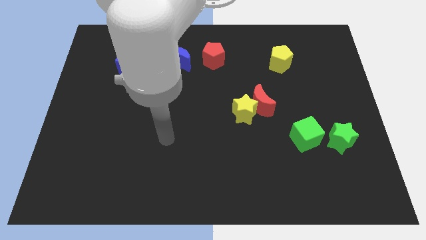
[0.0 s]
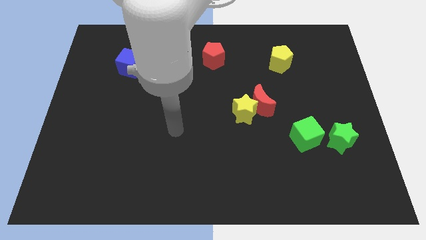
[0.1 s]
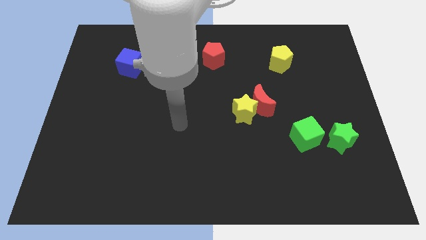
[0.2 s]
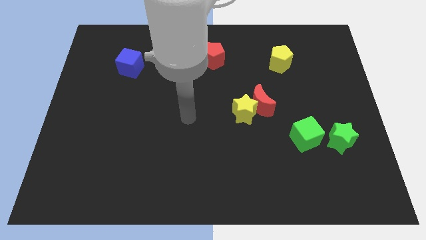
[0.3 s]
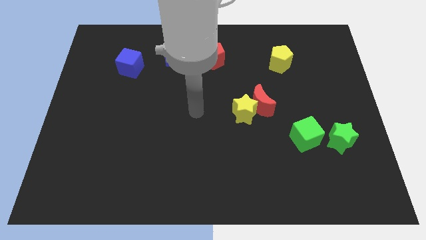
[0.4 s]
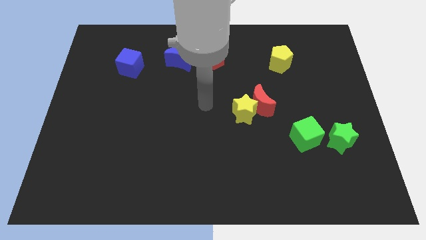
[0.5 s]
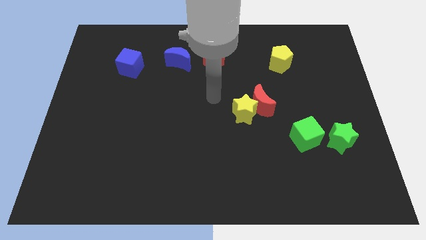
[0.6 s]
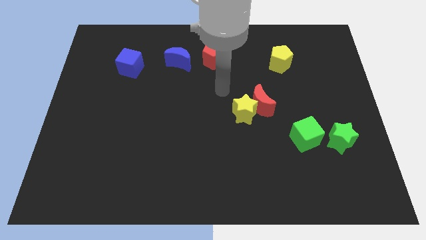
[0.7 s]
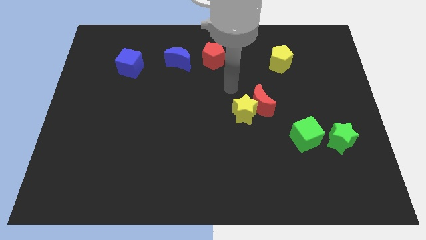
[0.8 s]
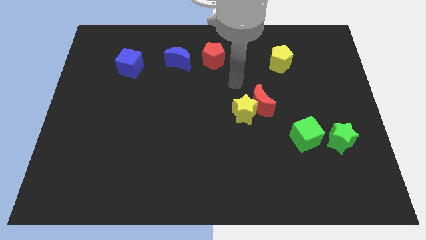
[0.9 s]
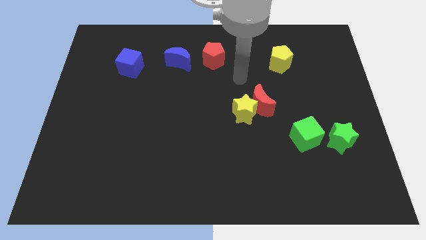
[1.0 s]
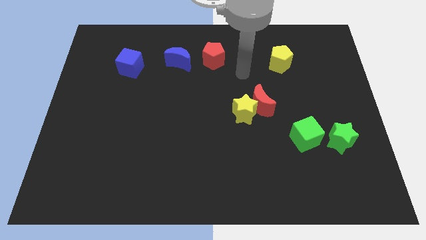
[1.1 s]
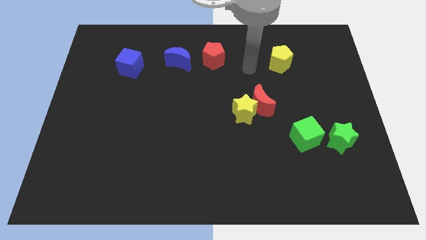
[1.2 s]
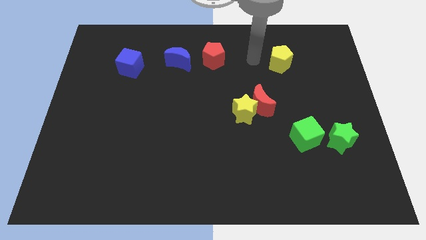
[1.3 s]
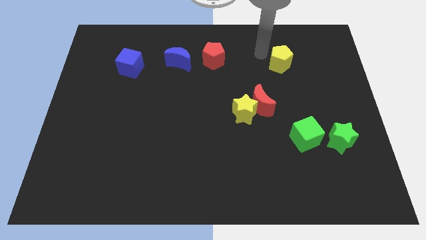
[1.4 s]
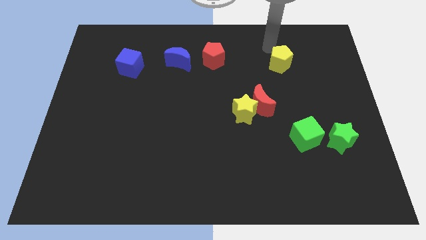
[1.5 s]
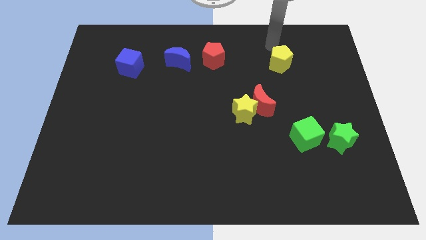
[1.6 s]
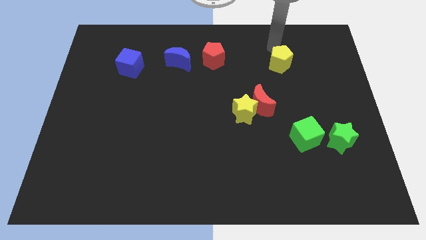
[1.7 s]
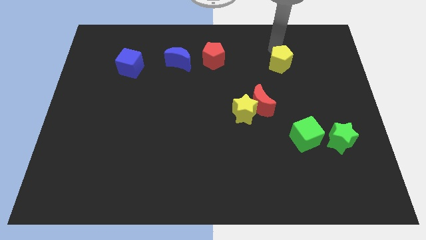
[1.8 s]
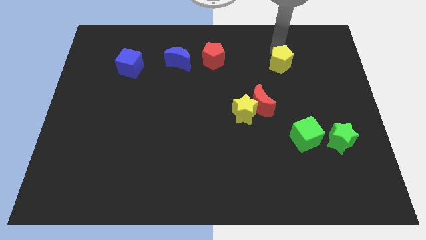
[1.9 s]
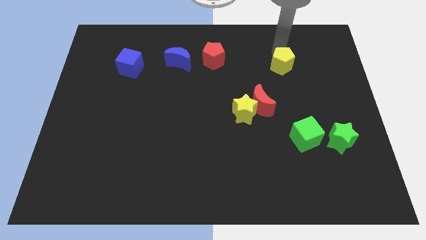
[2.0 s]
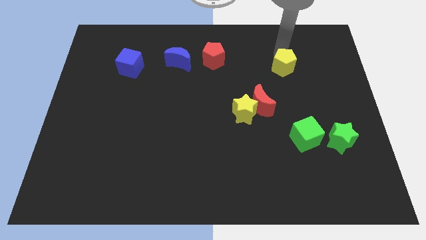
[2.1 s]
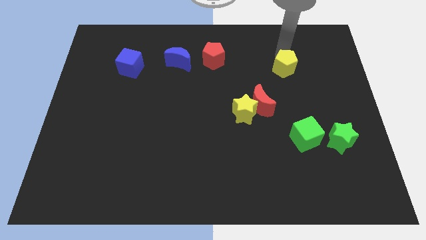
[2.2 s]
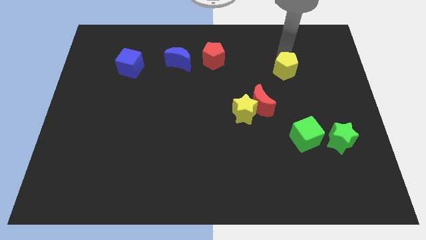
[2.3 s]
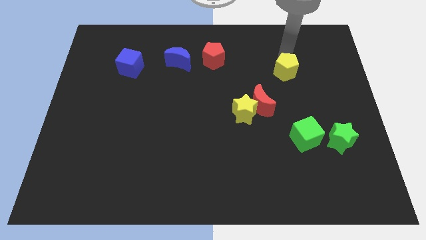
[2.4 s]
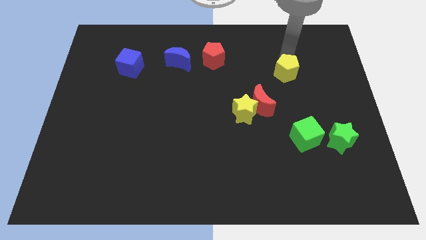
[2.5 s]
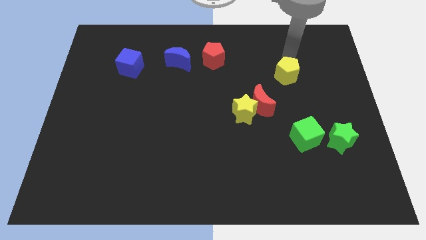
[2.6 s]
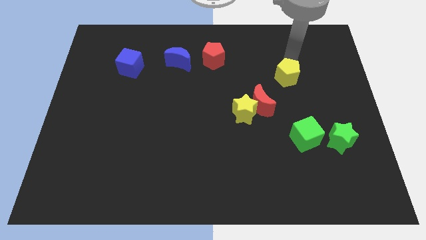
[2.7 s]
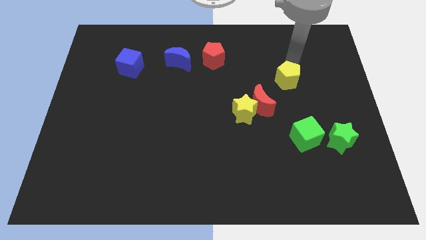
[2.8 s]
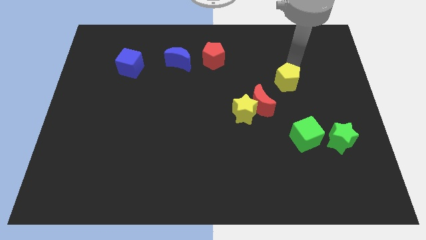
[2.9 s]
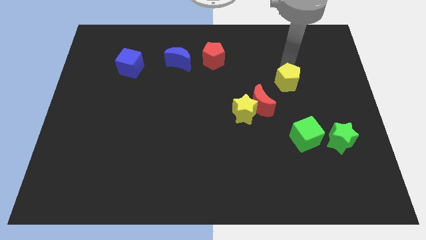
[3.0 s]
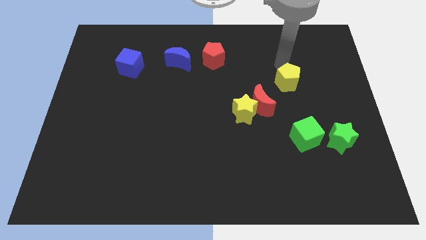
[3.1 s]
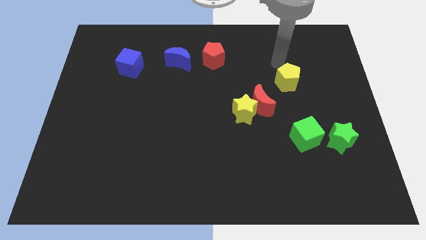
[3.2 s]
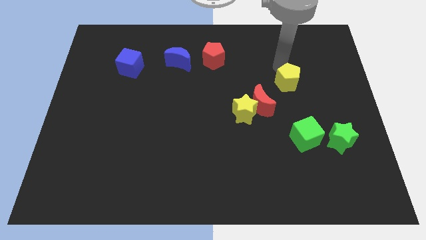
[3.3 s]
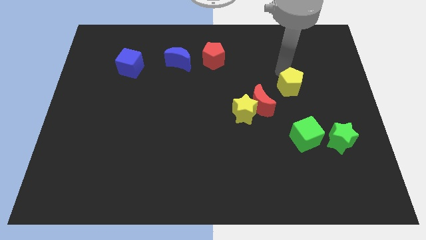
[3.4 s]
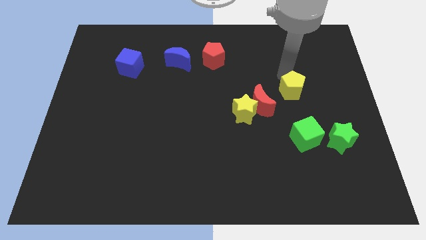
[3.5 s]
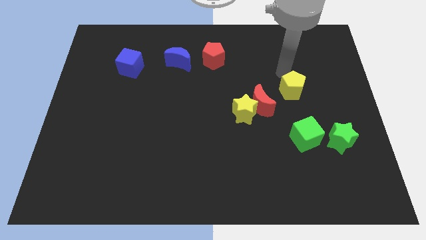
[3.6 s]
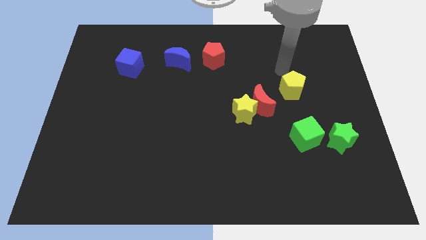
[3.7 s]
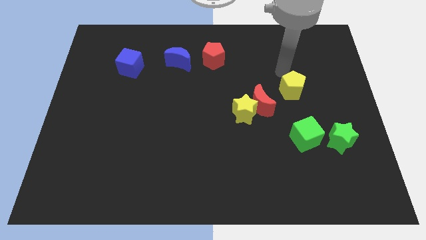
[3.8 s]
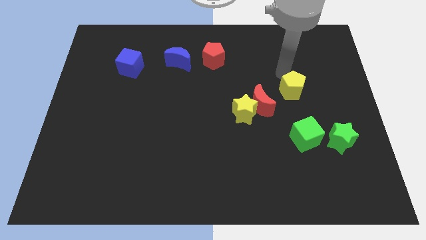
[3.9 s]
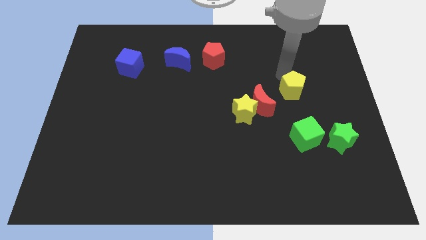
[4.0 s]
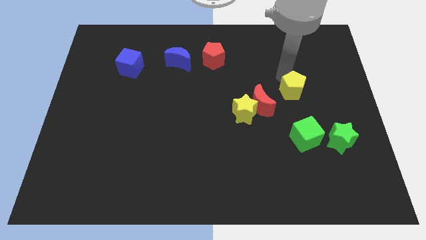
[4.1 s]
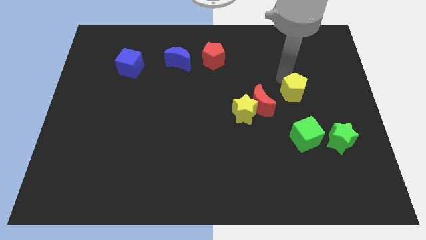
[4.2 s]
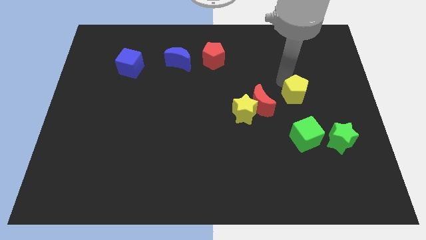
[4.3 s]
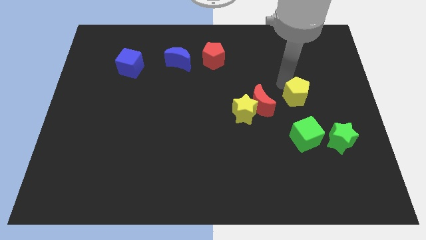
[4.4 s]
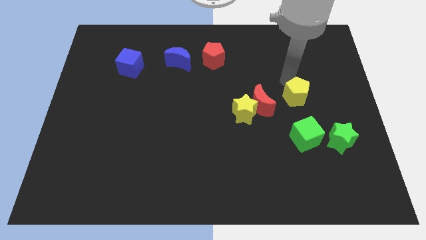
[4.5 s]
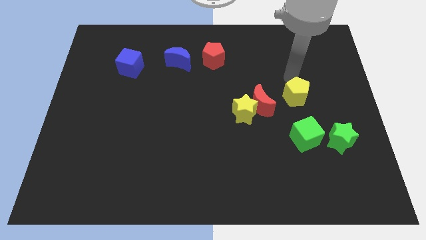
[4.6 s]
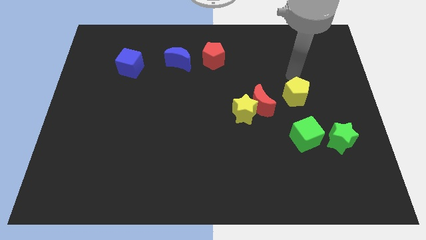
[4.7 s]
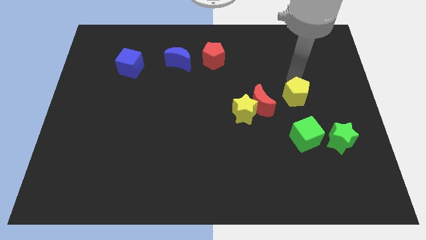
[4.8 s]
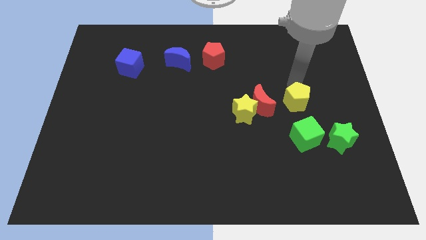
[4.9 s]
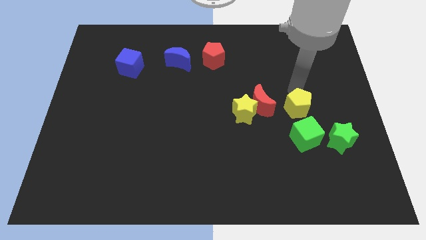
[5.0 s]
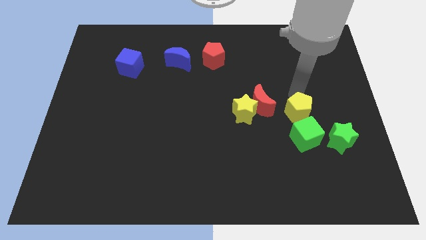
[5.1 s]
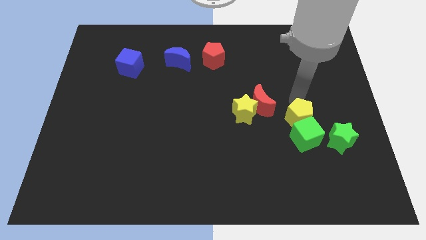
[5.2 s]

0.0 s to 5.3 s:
put the yellow pentagon towards the green cube

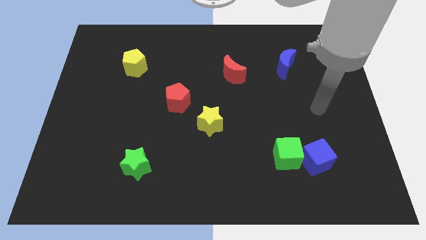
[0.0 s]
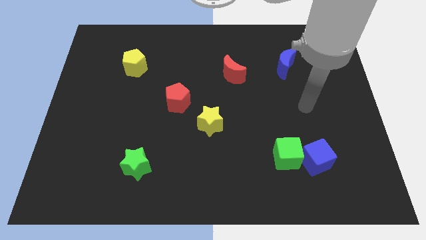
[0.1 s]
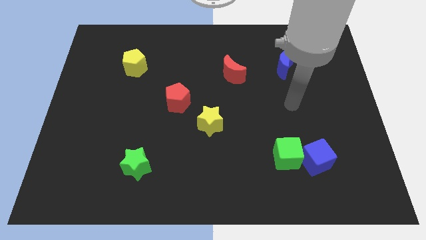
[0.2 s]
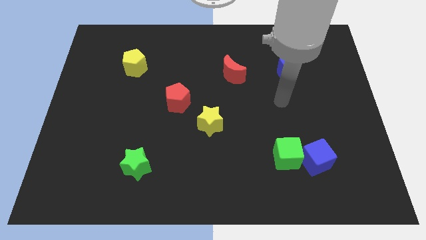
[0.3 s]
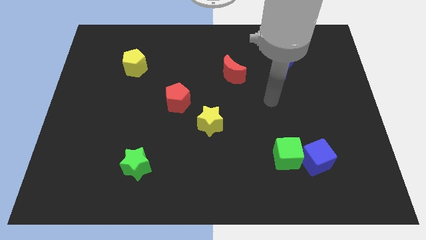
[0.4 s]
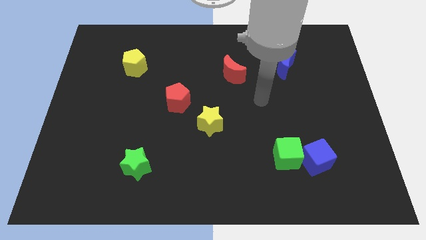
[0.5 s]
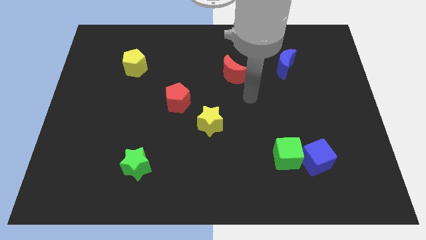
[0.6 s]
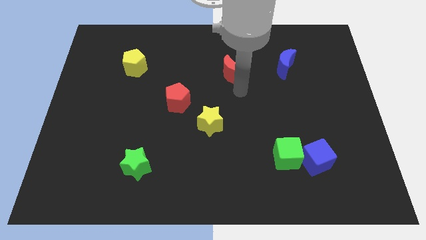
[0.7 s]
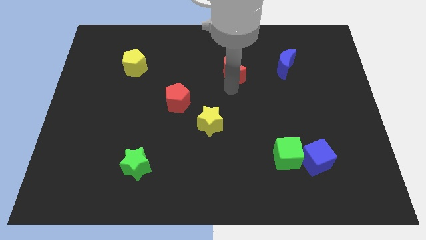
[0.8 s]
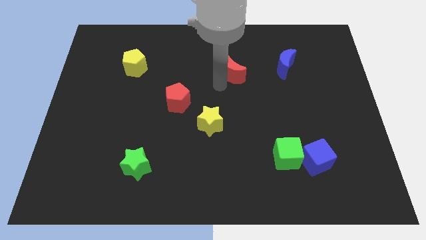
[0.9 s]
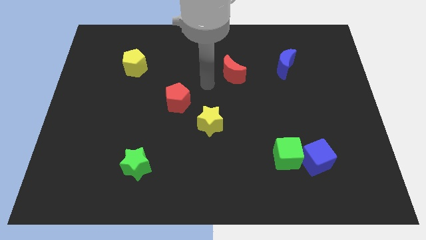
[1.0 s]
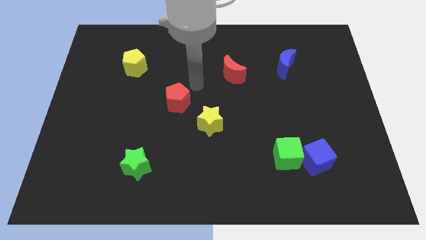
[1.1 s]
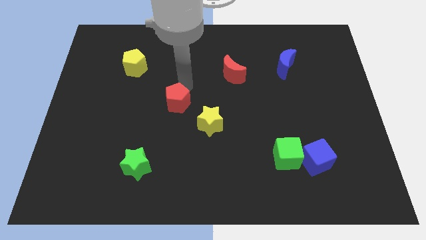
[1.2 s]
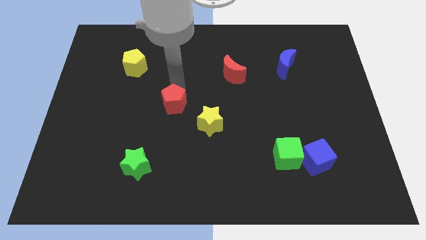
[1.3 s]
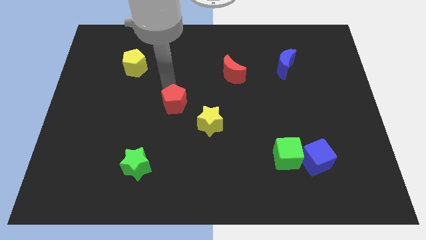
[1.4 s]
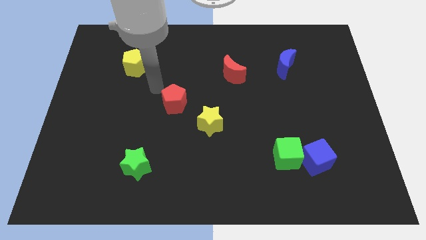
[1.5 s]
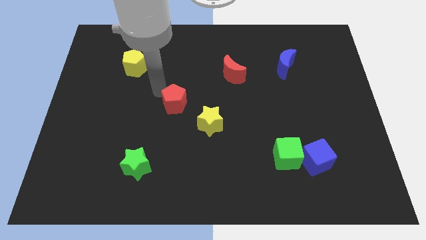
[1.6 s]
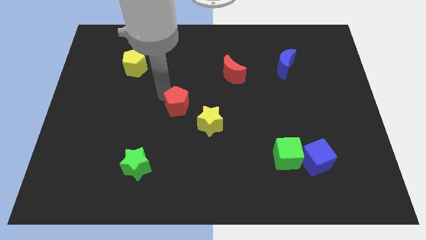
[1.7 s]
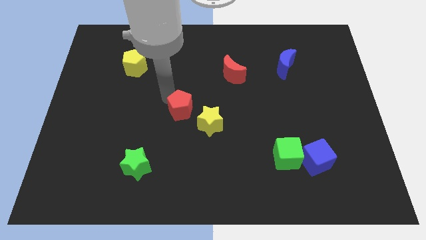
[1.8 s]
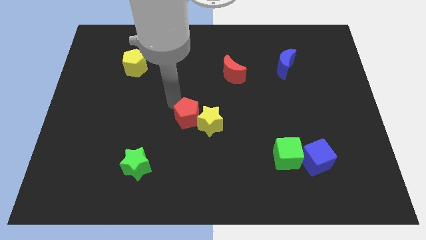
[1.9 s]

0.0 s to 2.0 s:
move the red pentagon close to the yellow star

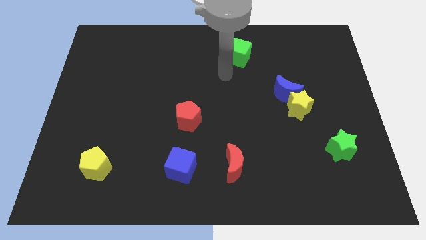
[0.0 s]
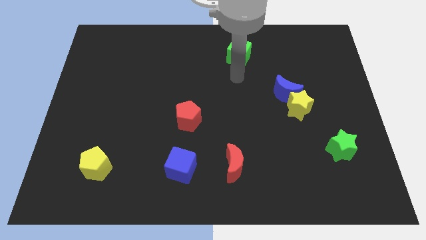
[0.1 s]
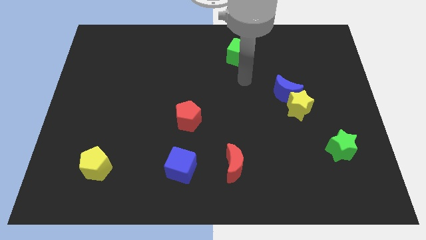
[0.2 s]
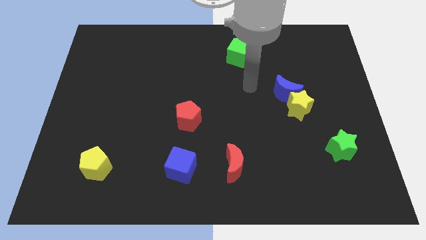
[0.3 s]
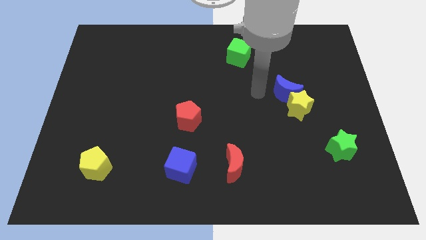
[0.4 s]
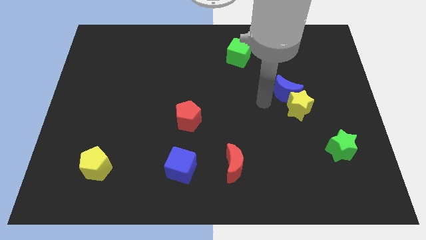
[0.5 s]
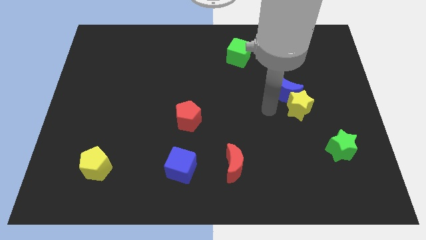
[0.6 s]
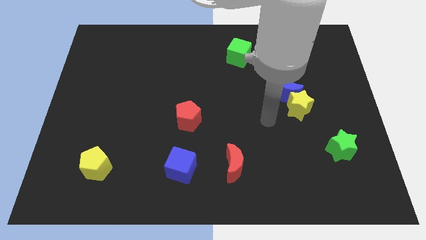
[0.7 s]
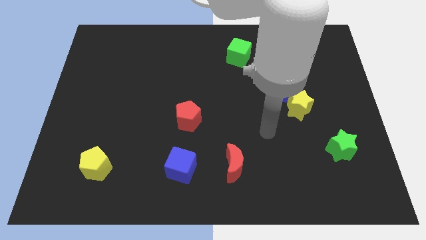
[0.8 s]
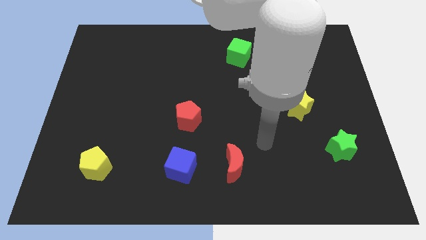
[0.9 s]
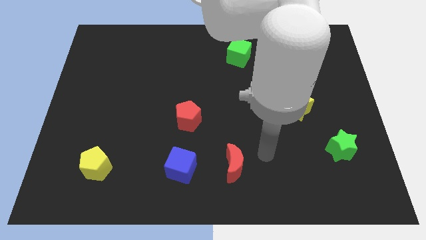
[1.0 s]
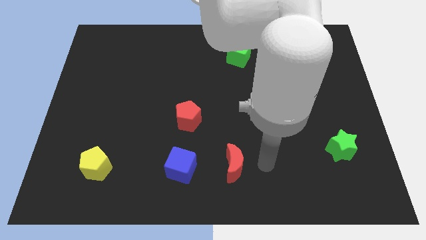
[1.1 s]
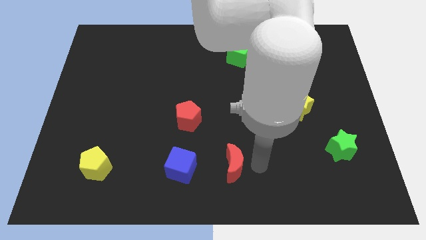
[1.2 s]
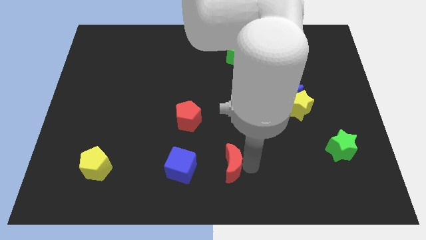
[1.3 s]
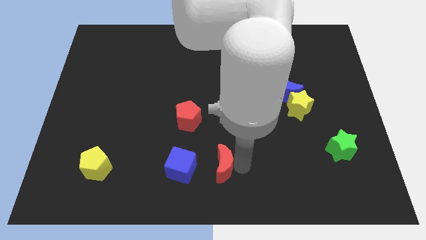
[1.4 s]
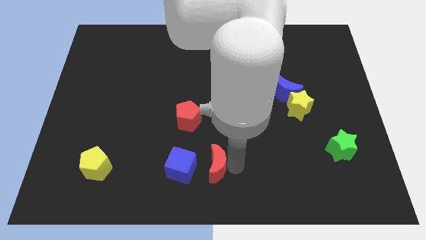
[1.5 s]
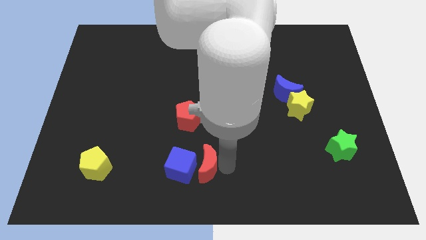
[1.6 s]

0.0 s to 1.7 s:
push the red moon next to the blue cube
